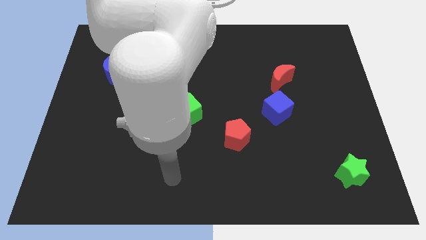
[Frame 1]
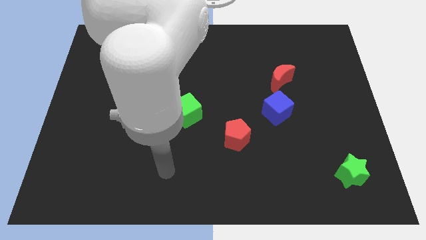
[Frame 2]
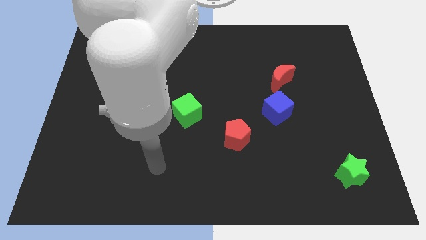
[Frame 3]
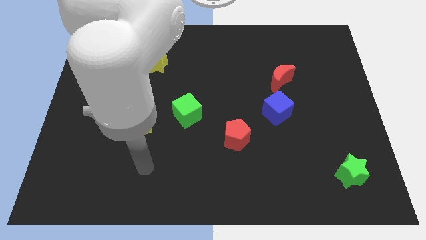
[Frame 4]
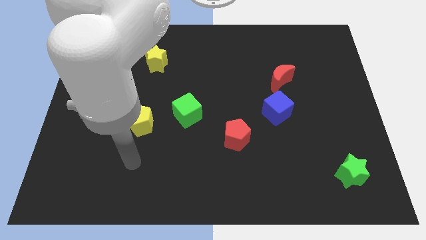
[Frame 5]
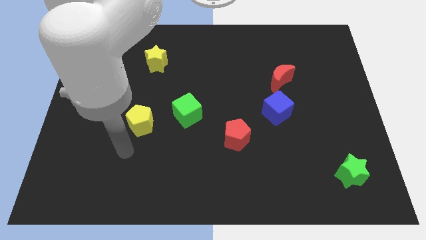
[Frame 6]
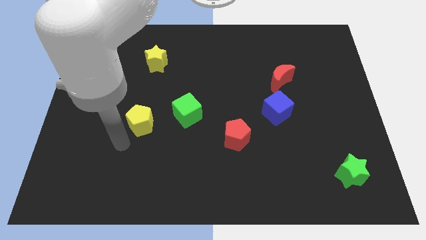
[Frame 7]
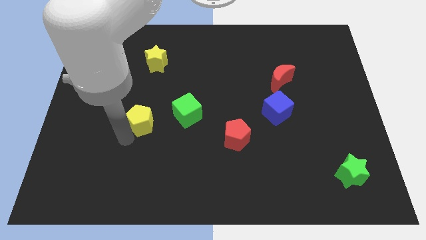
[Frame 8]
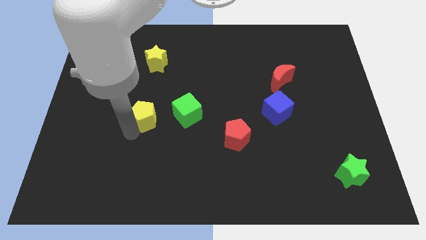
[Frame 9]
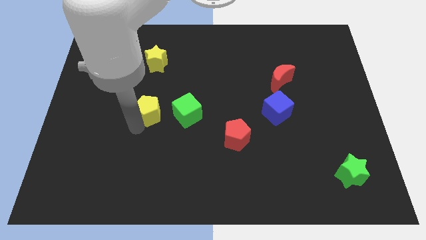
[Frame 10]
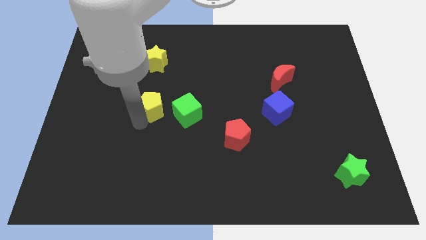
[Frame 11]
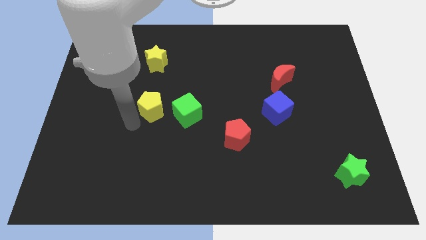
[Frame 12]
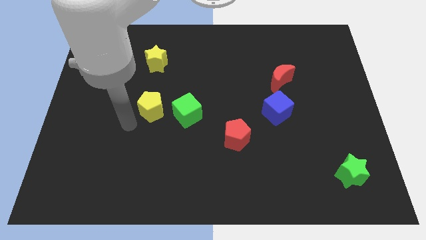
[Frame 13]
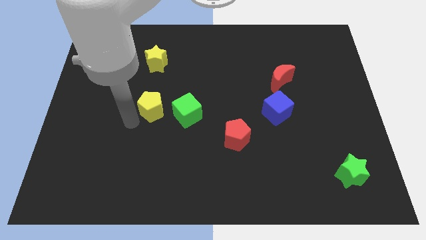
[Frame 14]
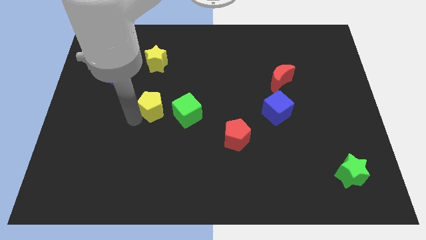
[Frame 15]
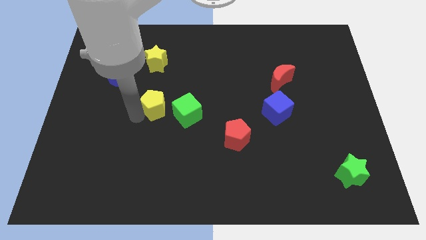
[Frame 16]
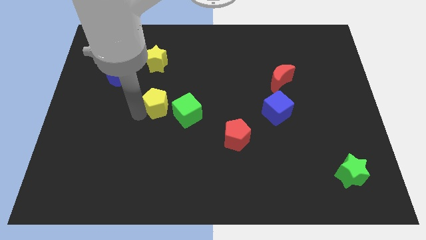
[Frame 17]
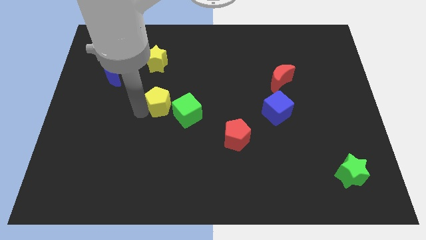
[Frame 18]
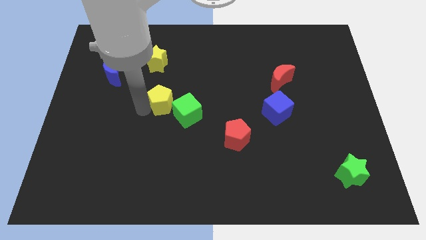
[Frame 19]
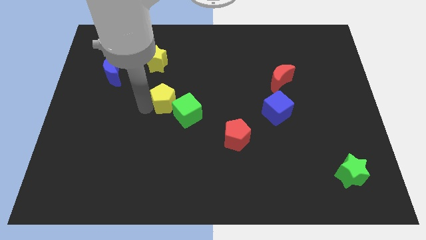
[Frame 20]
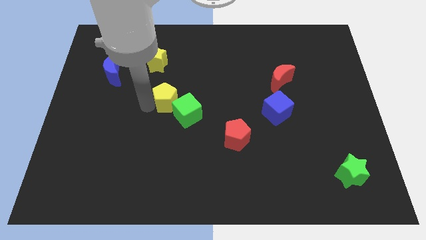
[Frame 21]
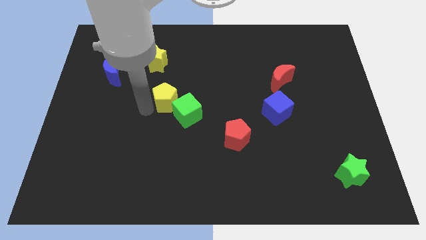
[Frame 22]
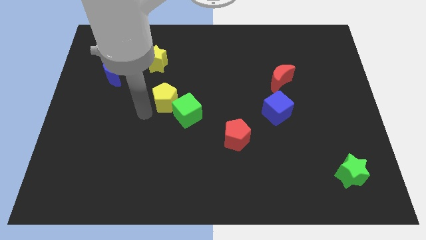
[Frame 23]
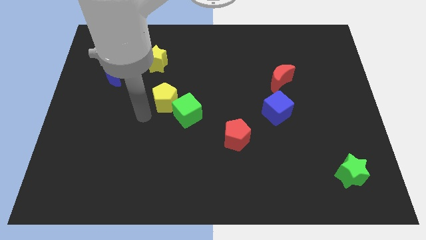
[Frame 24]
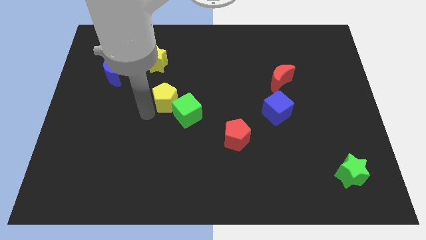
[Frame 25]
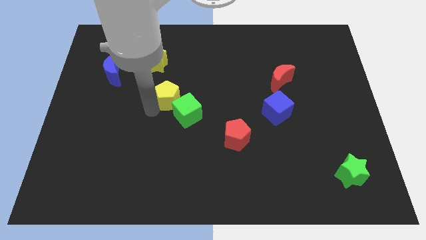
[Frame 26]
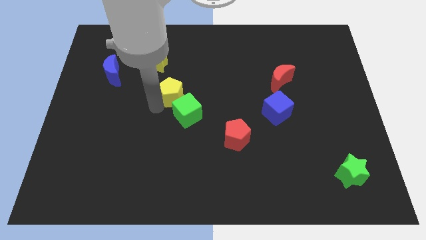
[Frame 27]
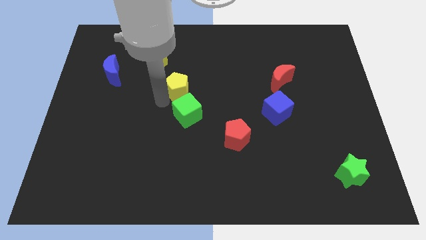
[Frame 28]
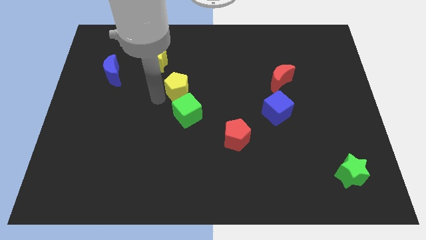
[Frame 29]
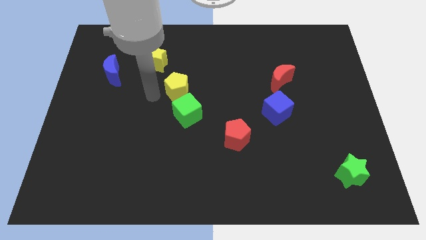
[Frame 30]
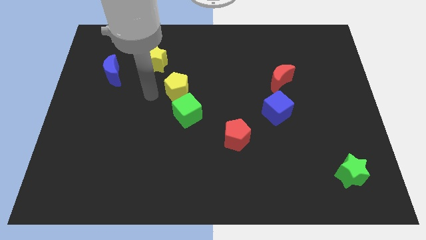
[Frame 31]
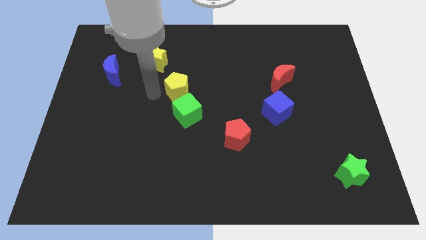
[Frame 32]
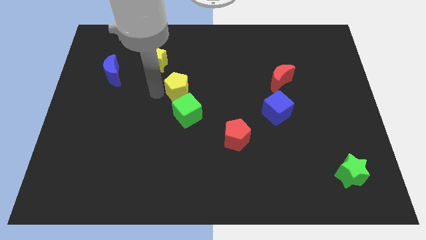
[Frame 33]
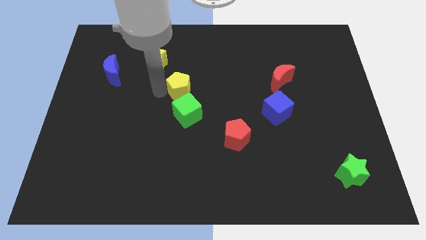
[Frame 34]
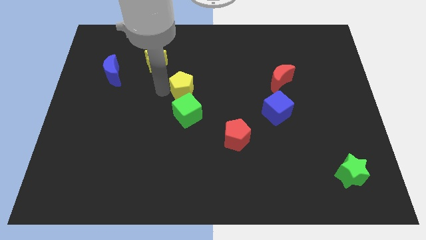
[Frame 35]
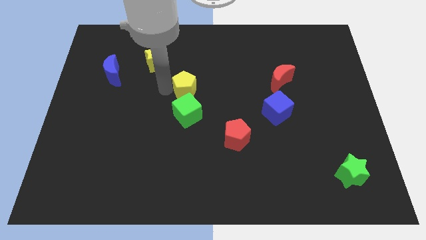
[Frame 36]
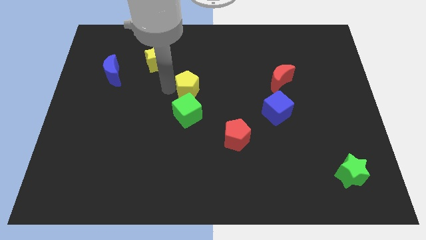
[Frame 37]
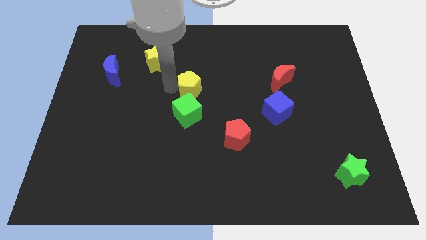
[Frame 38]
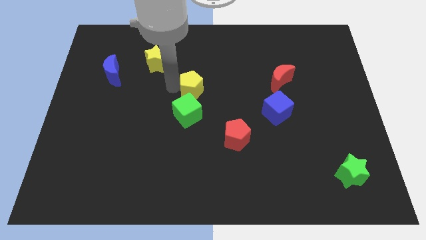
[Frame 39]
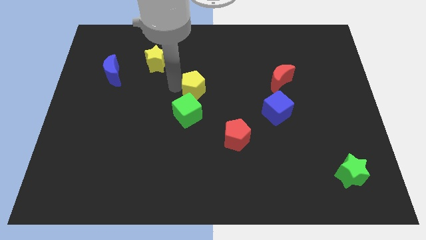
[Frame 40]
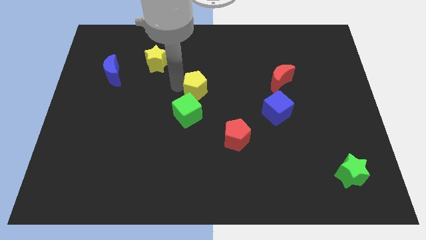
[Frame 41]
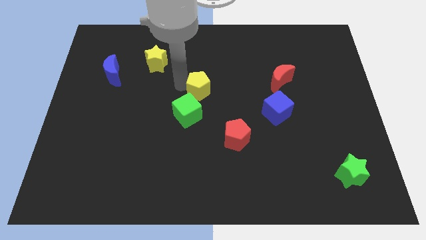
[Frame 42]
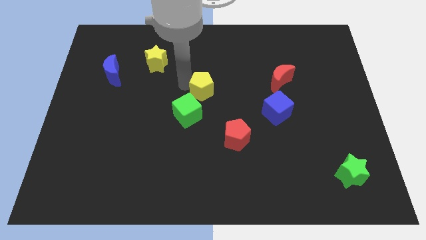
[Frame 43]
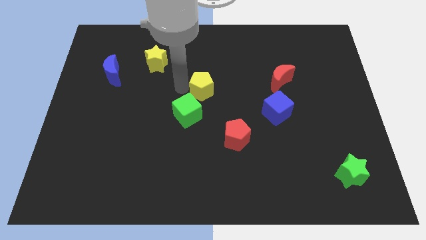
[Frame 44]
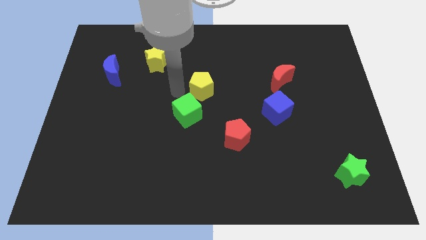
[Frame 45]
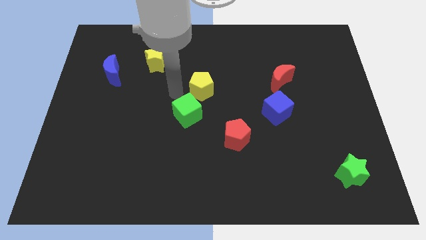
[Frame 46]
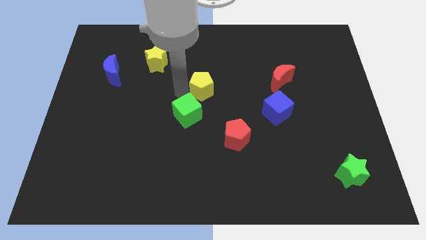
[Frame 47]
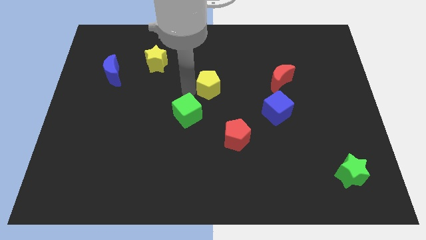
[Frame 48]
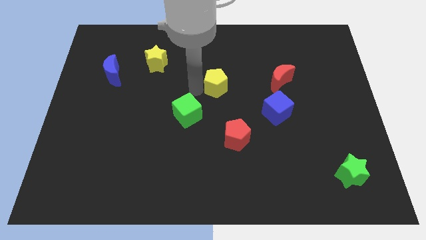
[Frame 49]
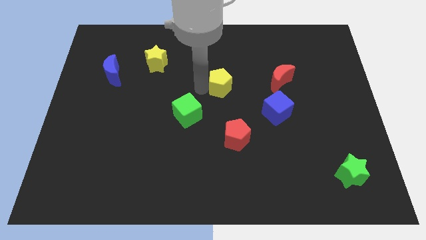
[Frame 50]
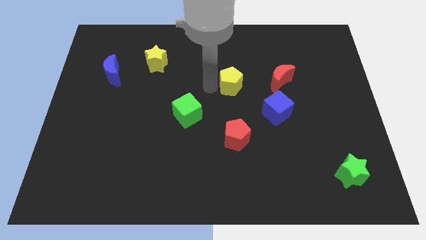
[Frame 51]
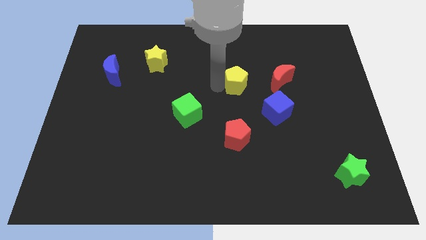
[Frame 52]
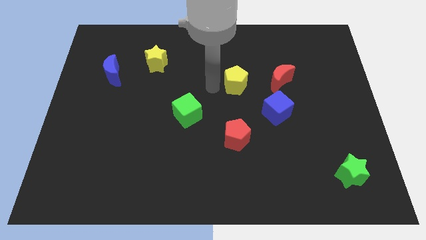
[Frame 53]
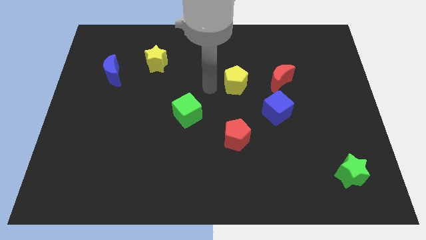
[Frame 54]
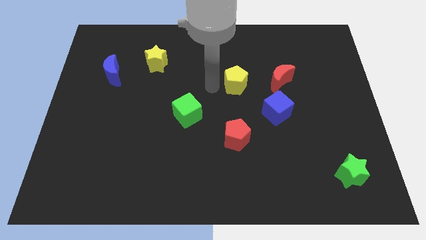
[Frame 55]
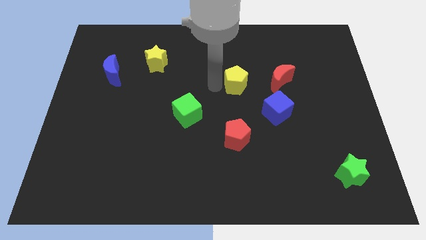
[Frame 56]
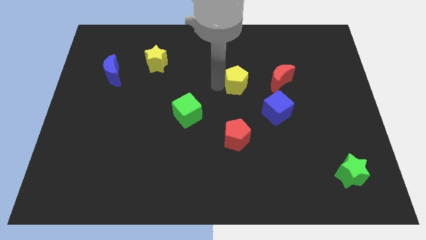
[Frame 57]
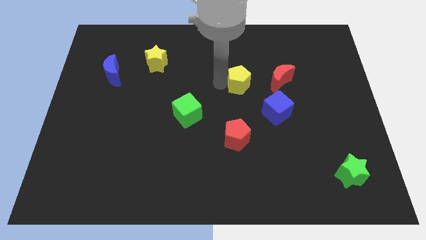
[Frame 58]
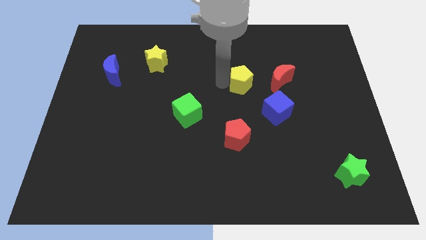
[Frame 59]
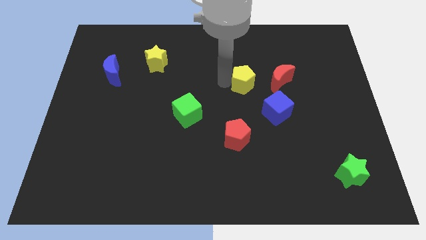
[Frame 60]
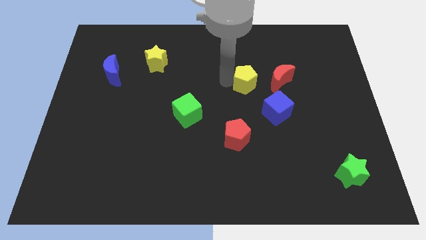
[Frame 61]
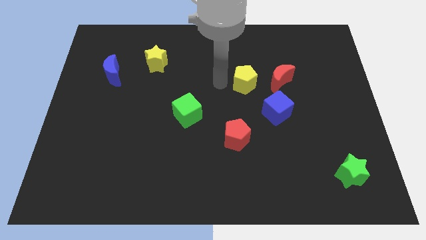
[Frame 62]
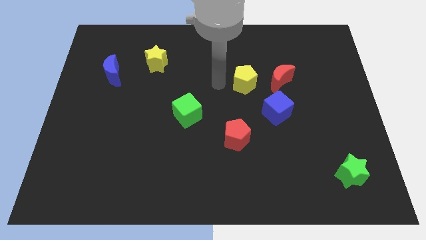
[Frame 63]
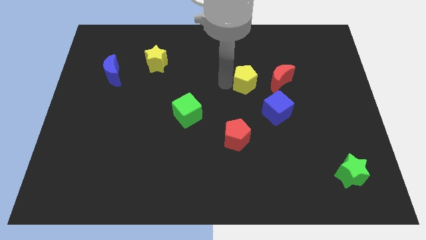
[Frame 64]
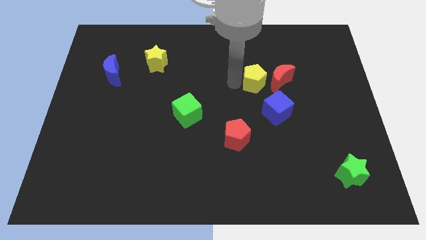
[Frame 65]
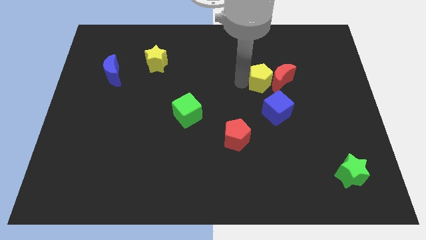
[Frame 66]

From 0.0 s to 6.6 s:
put the yellow pentagon towards the red moon

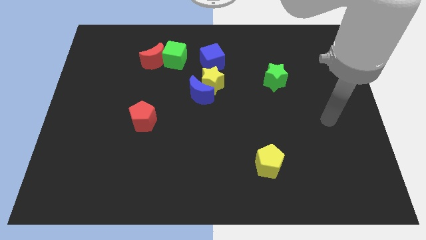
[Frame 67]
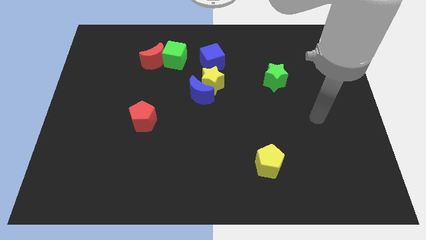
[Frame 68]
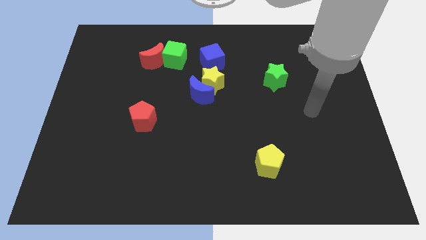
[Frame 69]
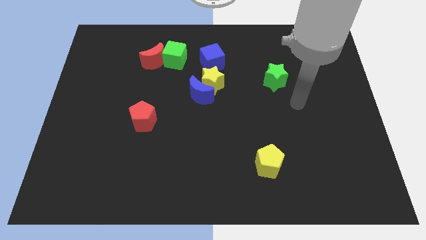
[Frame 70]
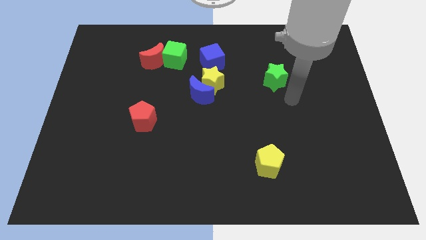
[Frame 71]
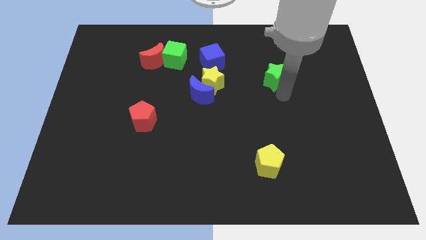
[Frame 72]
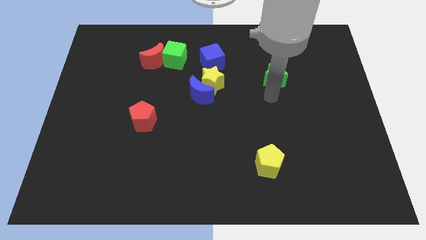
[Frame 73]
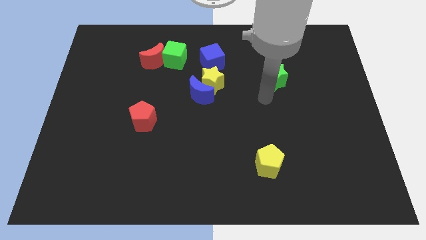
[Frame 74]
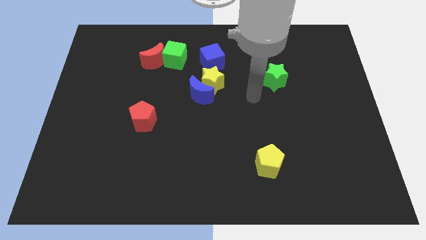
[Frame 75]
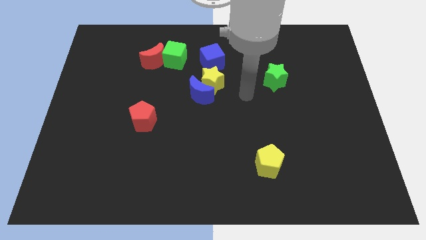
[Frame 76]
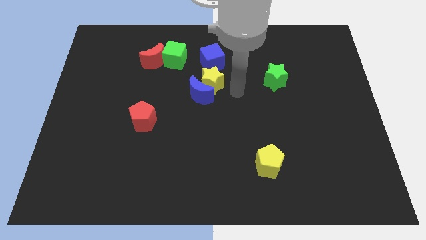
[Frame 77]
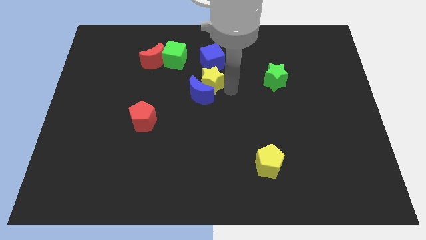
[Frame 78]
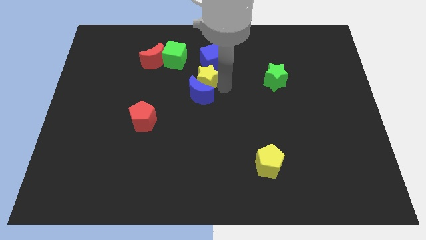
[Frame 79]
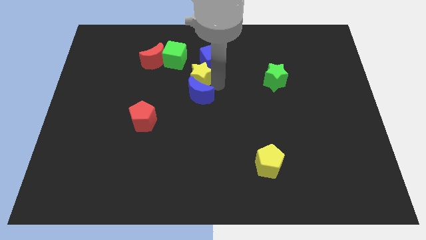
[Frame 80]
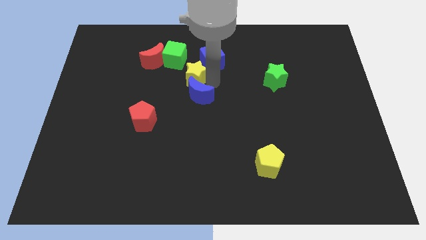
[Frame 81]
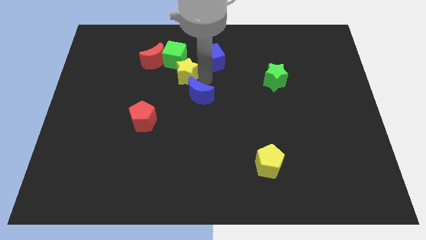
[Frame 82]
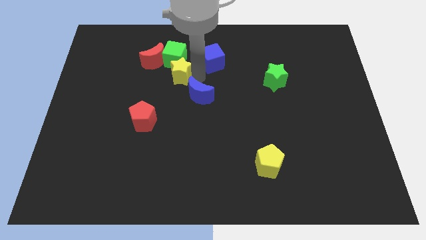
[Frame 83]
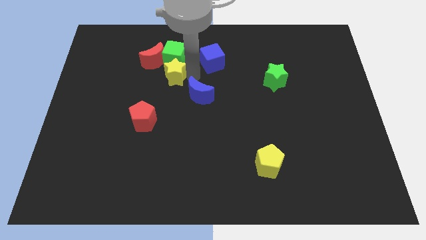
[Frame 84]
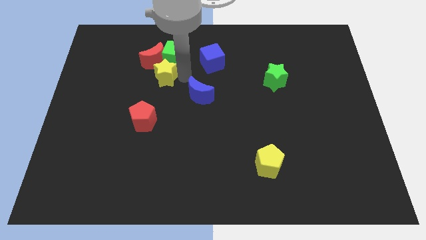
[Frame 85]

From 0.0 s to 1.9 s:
move the yellow star towards the red moon
